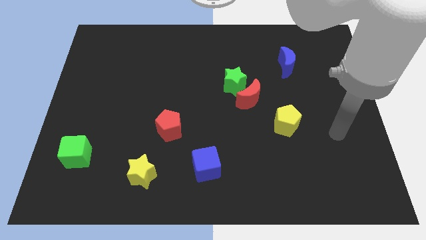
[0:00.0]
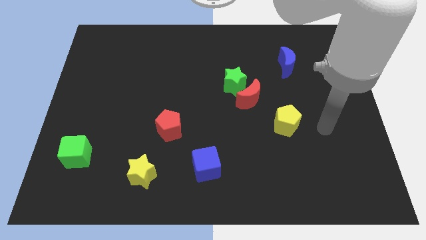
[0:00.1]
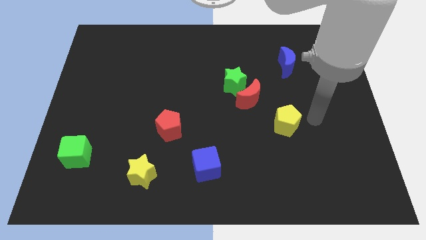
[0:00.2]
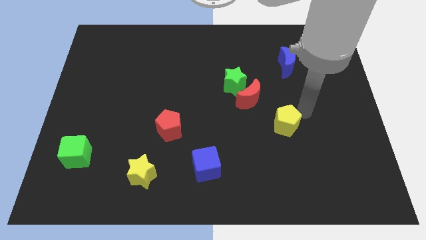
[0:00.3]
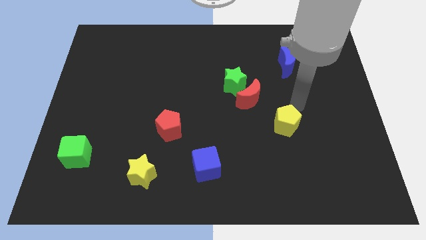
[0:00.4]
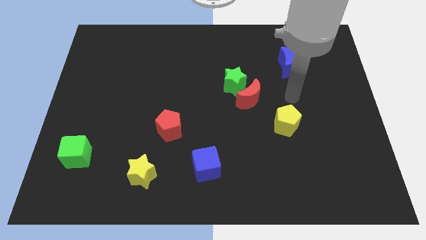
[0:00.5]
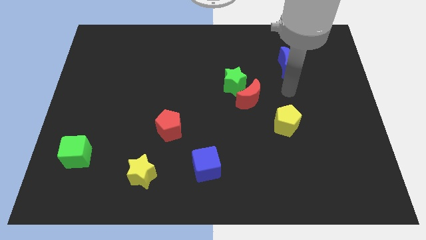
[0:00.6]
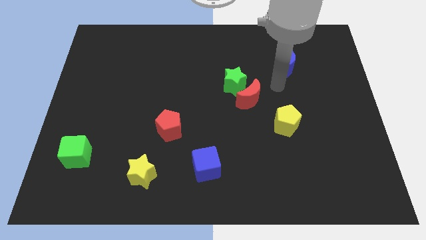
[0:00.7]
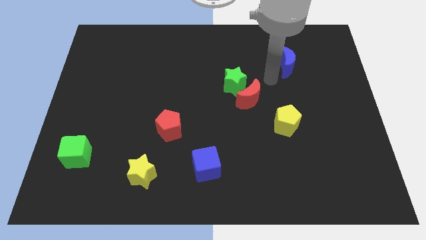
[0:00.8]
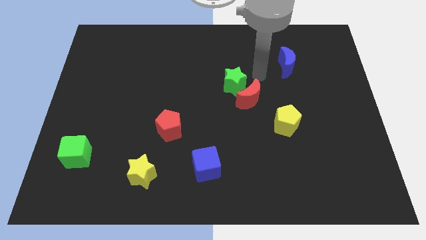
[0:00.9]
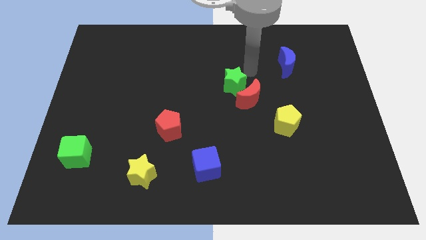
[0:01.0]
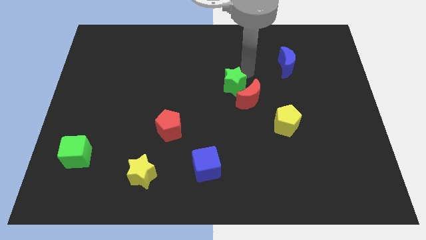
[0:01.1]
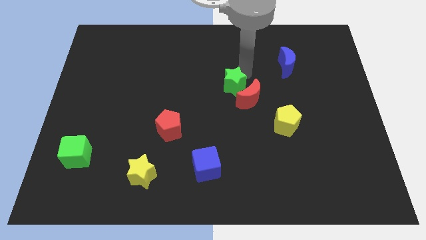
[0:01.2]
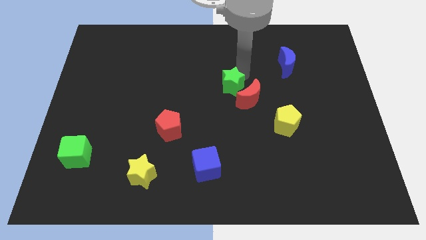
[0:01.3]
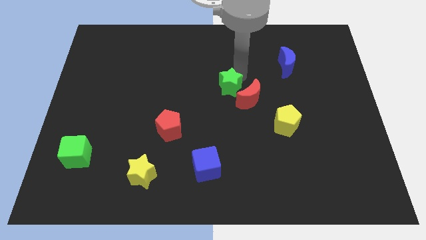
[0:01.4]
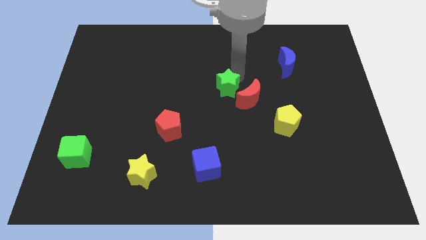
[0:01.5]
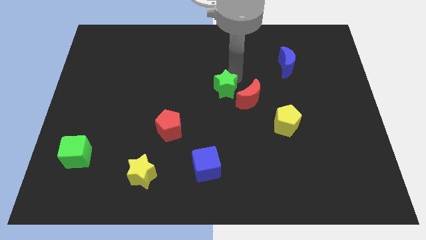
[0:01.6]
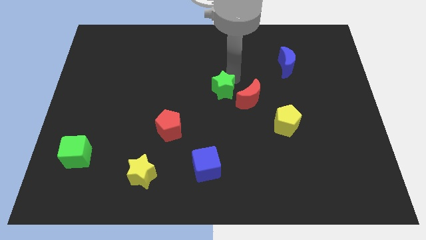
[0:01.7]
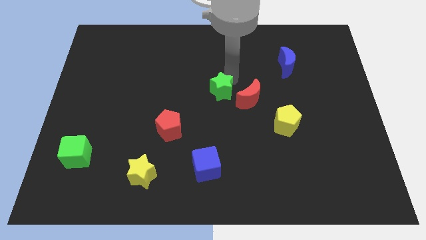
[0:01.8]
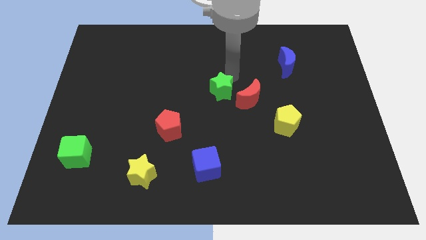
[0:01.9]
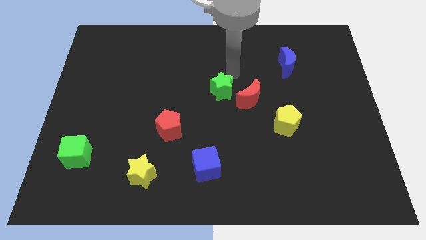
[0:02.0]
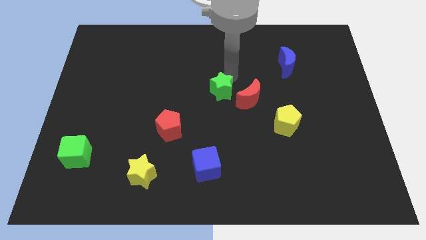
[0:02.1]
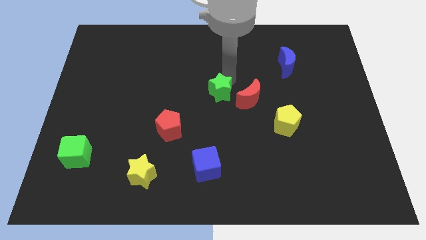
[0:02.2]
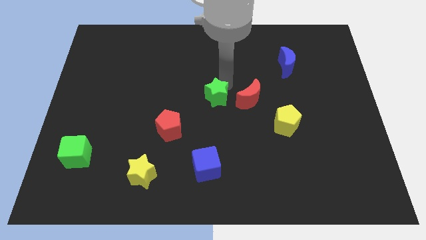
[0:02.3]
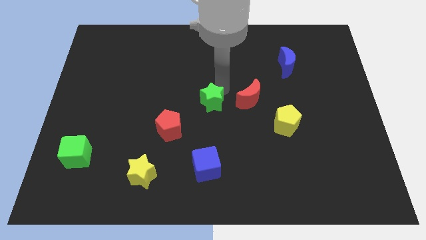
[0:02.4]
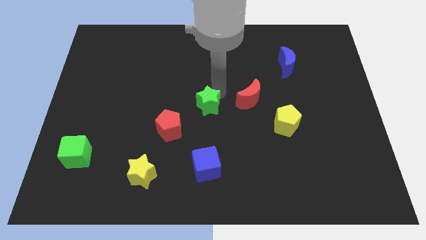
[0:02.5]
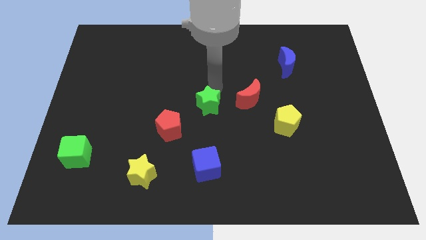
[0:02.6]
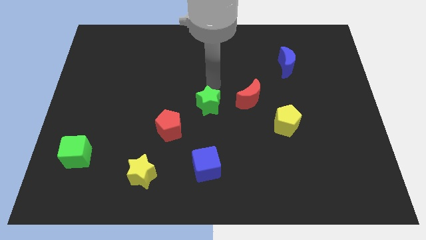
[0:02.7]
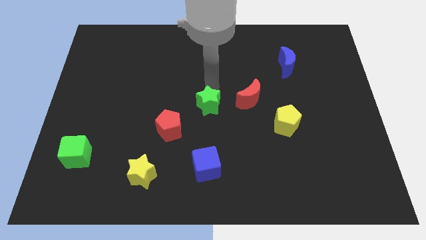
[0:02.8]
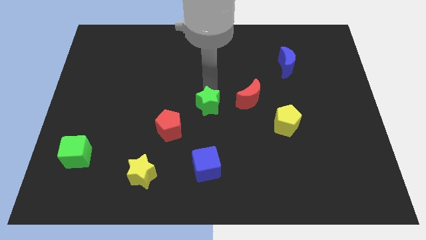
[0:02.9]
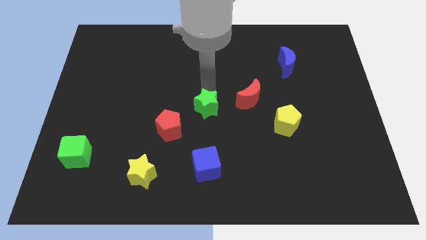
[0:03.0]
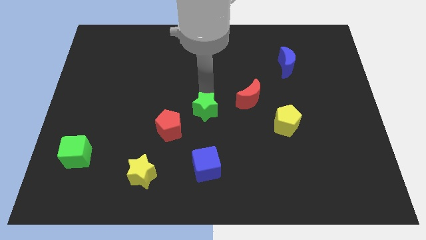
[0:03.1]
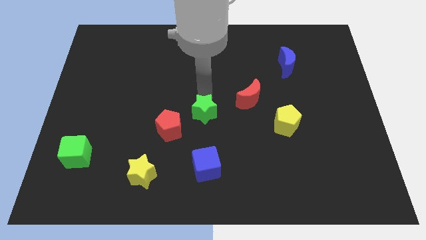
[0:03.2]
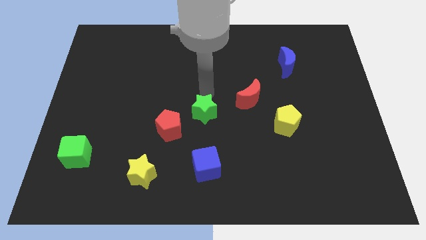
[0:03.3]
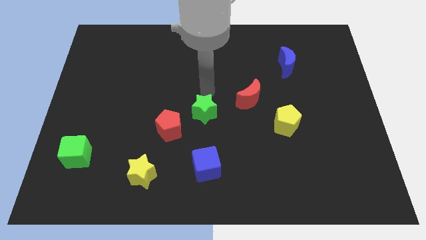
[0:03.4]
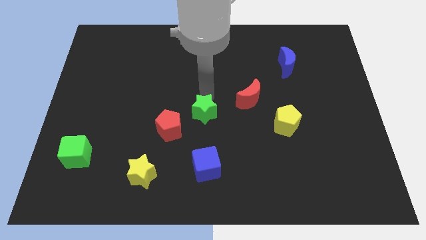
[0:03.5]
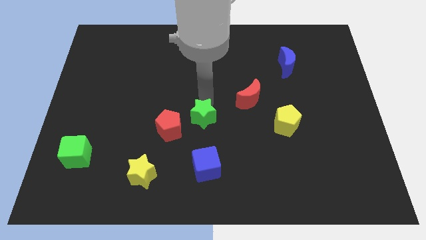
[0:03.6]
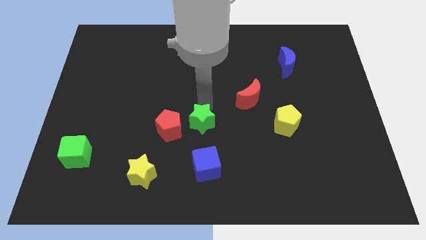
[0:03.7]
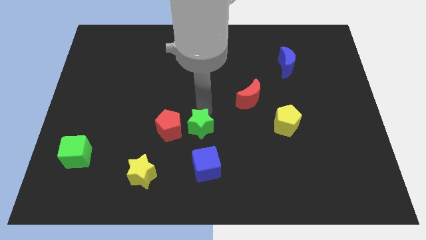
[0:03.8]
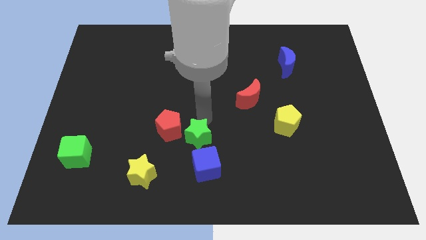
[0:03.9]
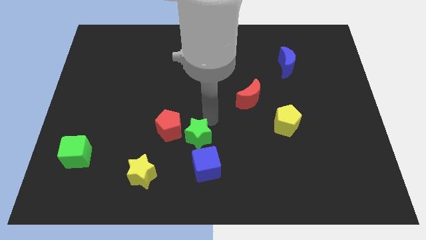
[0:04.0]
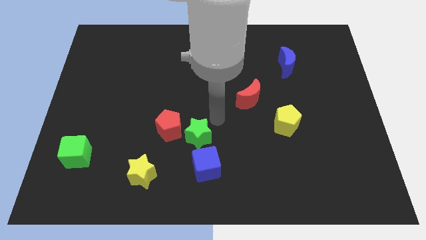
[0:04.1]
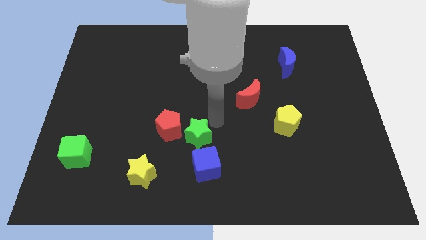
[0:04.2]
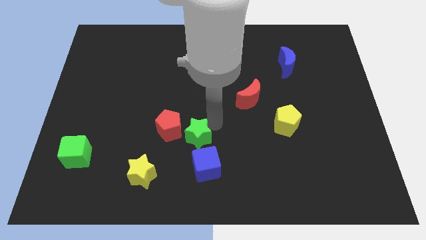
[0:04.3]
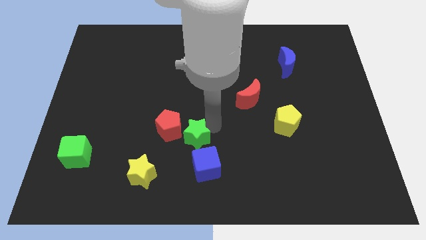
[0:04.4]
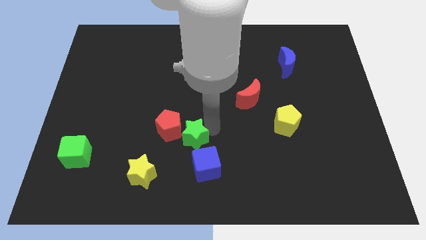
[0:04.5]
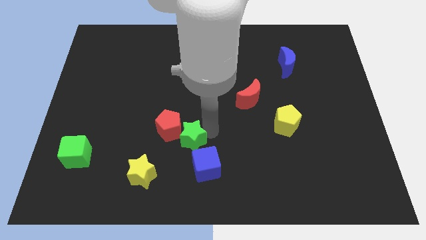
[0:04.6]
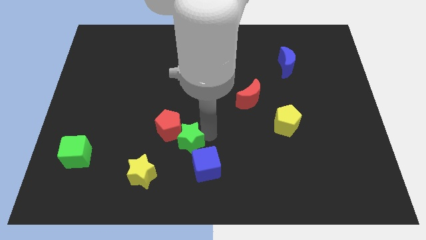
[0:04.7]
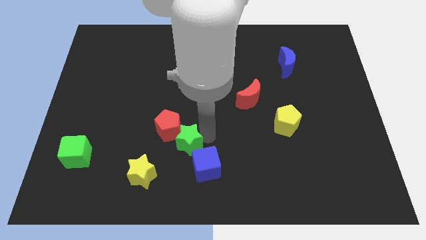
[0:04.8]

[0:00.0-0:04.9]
slide the green star below the red pentagon

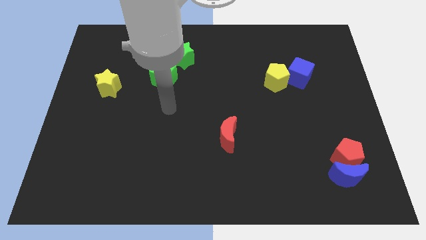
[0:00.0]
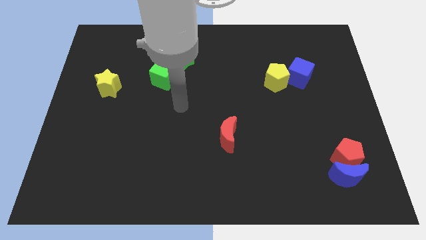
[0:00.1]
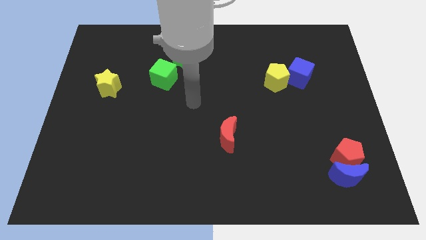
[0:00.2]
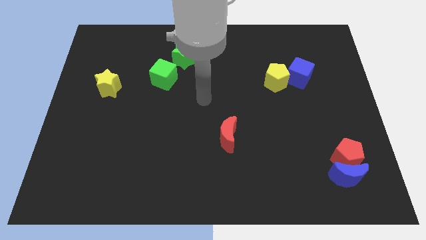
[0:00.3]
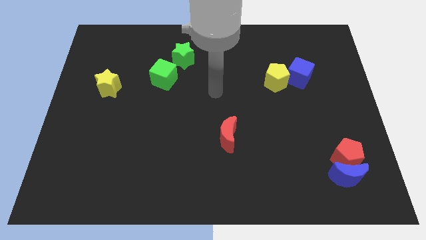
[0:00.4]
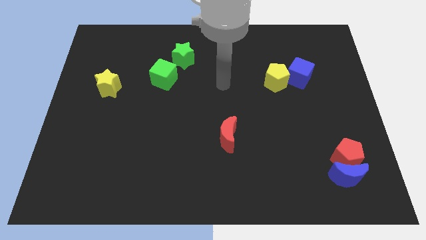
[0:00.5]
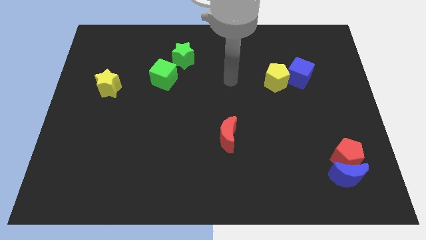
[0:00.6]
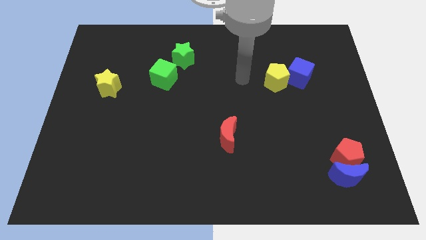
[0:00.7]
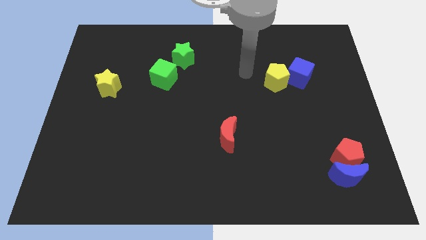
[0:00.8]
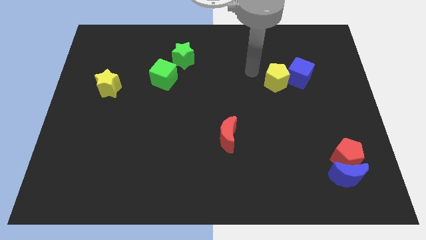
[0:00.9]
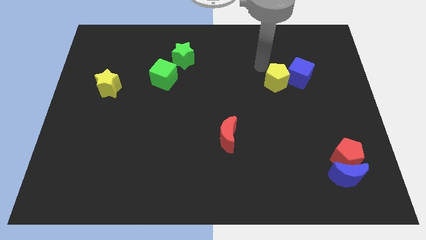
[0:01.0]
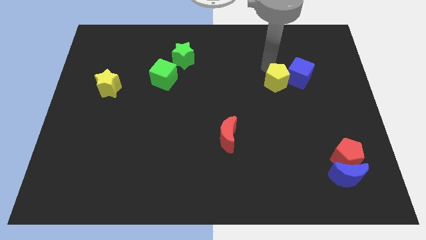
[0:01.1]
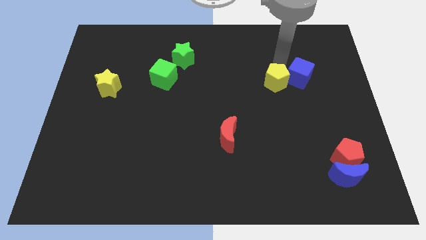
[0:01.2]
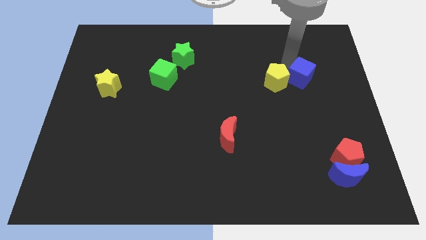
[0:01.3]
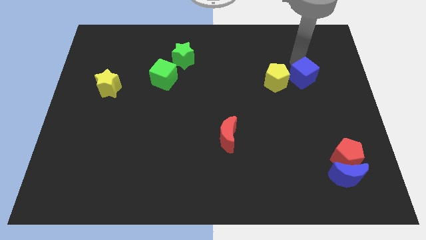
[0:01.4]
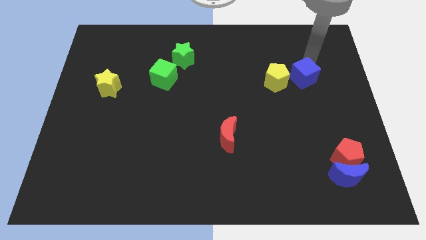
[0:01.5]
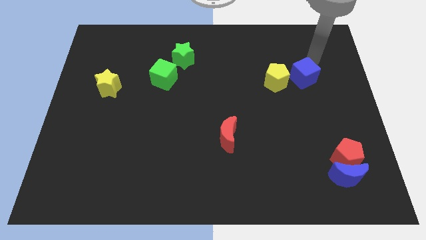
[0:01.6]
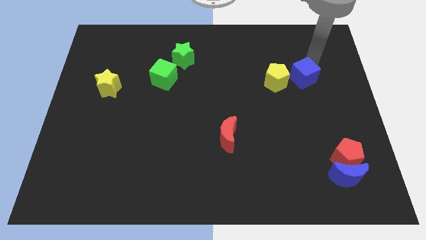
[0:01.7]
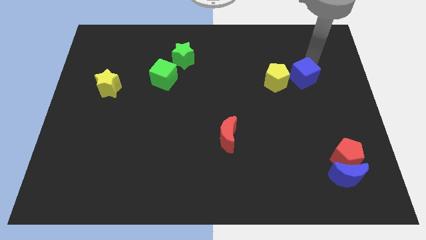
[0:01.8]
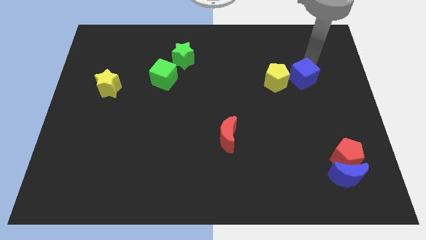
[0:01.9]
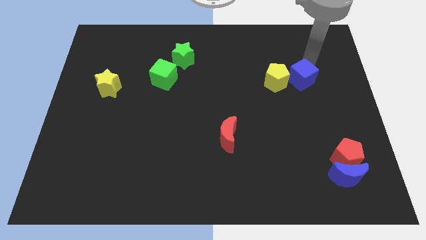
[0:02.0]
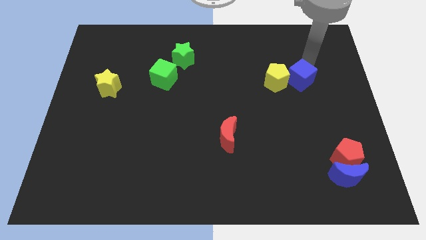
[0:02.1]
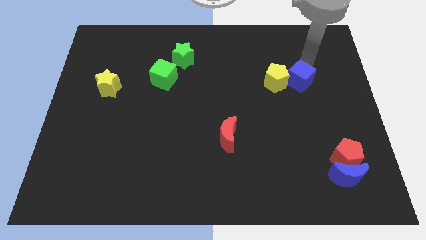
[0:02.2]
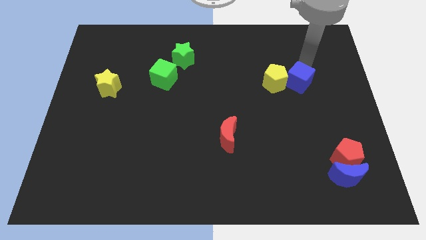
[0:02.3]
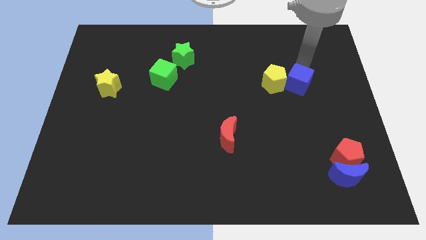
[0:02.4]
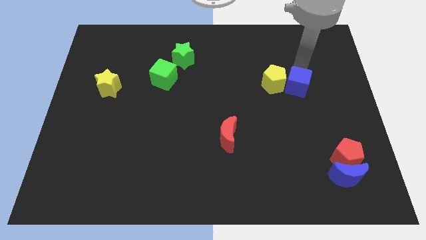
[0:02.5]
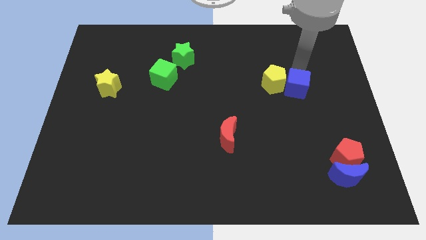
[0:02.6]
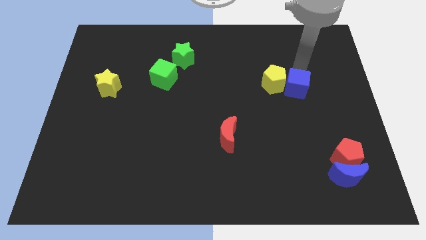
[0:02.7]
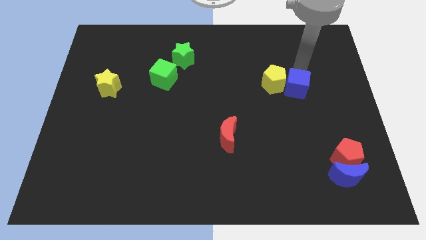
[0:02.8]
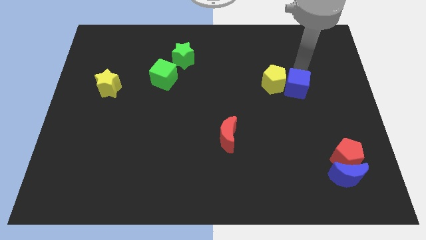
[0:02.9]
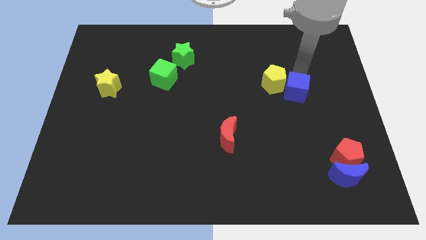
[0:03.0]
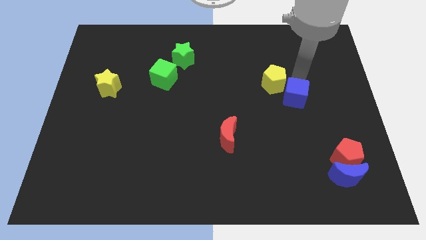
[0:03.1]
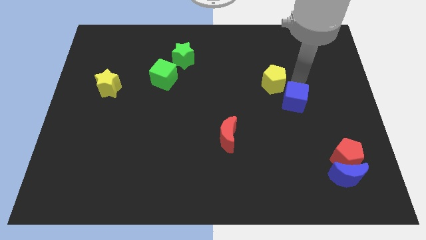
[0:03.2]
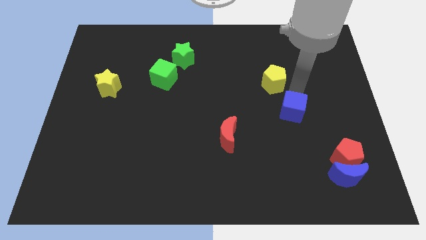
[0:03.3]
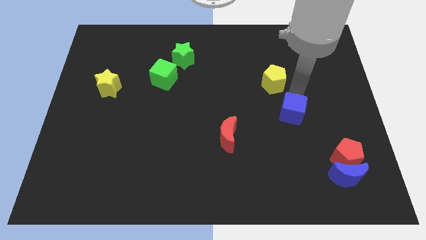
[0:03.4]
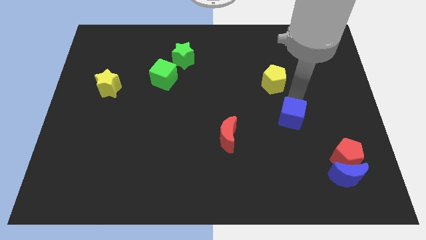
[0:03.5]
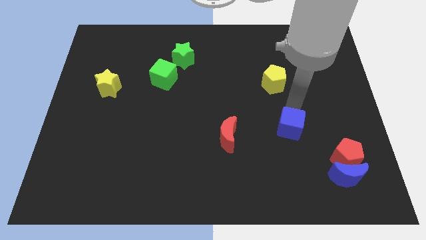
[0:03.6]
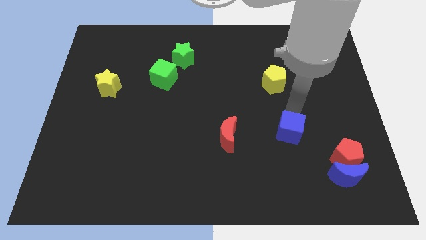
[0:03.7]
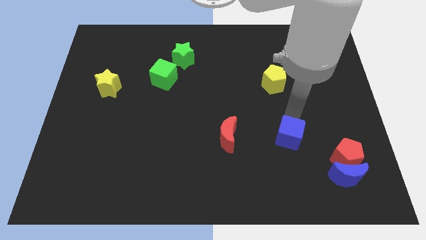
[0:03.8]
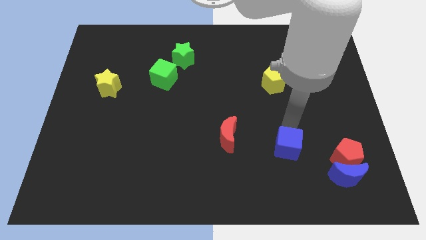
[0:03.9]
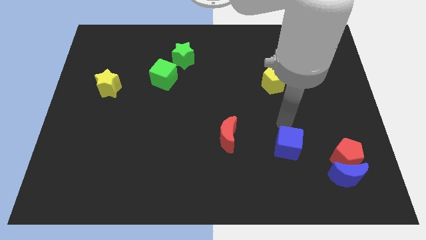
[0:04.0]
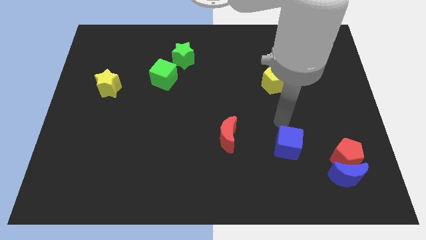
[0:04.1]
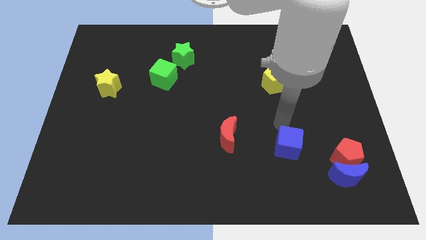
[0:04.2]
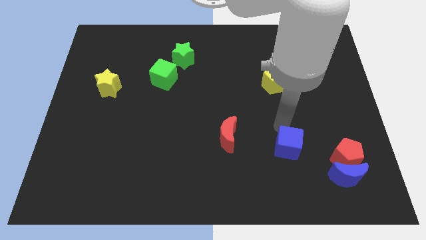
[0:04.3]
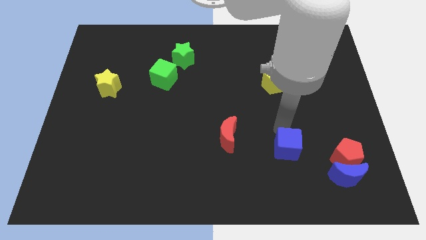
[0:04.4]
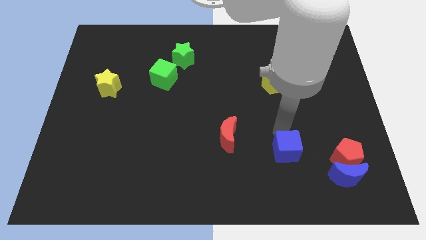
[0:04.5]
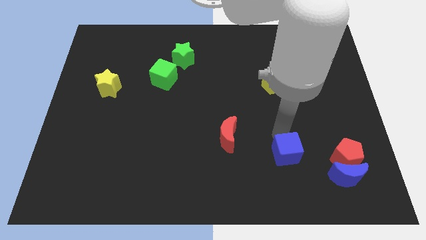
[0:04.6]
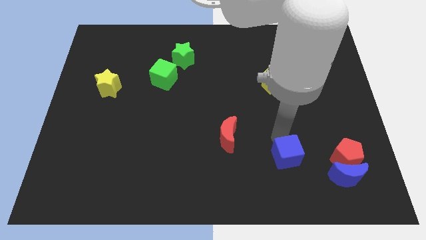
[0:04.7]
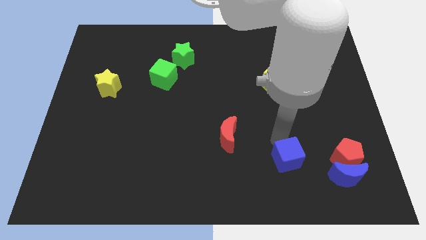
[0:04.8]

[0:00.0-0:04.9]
move the blue cube to the left side of the blue moon
